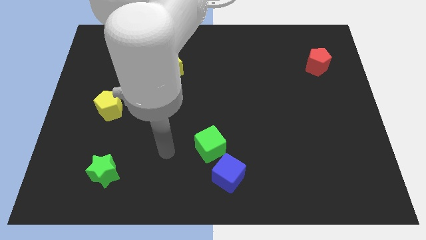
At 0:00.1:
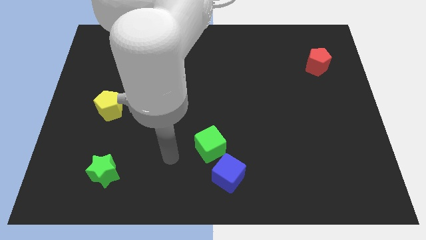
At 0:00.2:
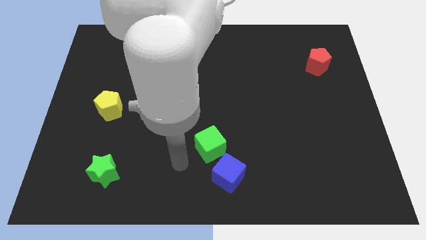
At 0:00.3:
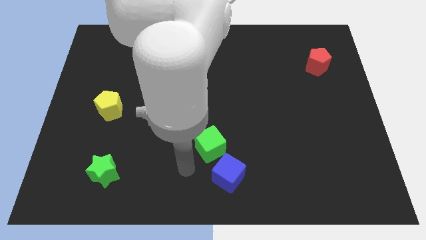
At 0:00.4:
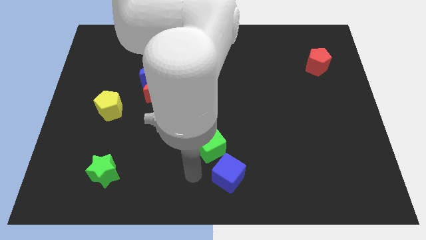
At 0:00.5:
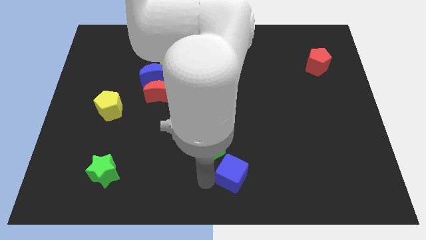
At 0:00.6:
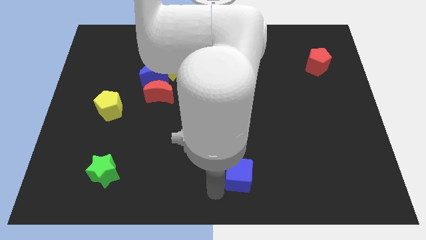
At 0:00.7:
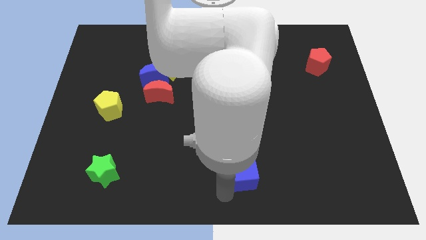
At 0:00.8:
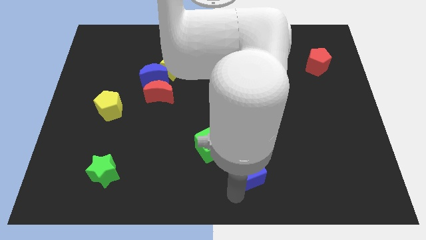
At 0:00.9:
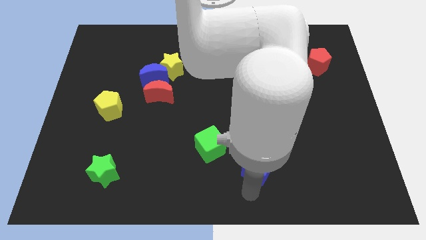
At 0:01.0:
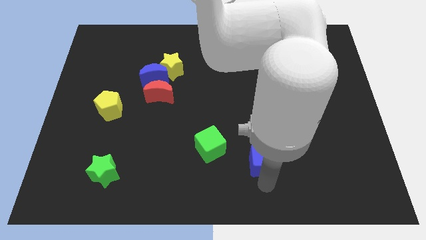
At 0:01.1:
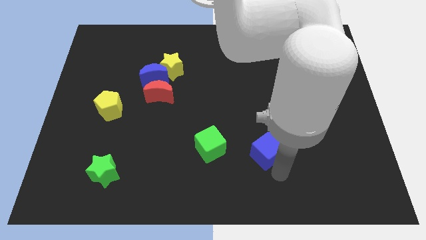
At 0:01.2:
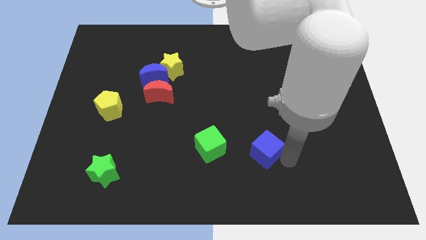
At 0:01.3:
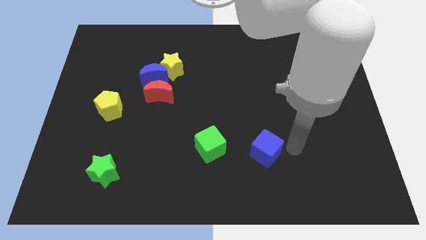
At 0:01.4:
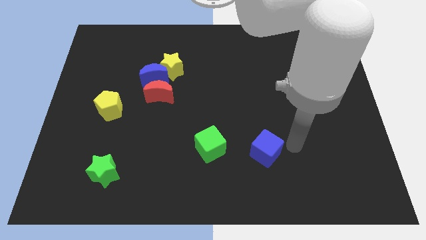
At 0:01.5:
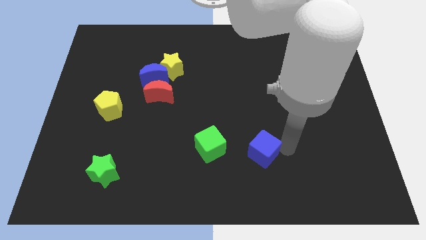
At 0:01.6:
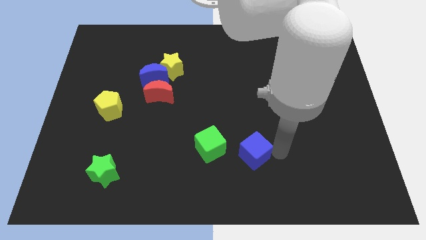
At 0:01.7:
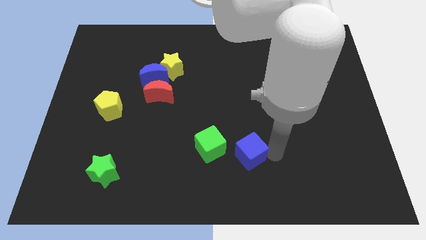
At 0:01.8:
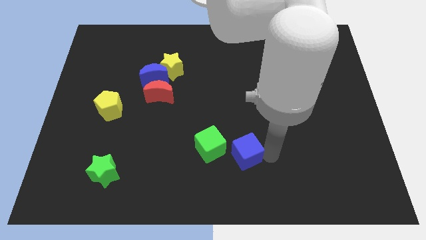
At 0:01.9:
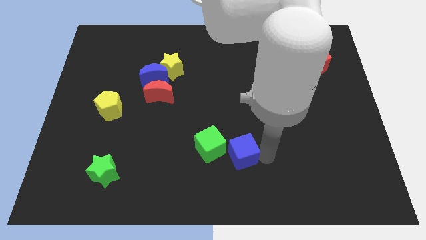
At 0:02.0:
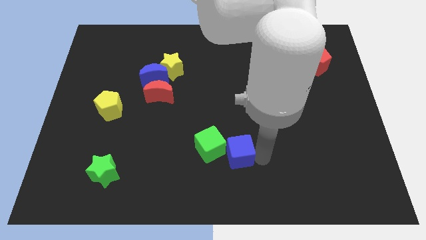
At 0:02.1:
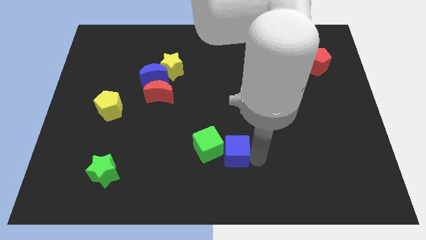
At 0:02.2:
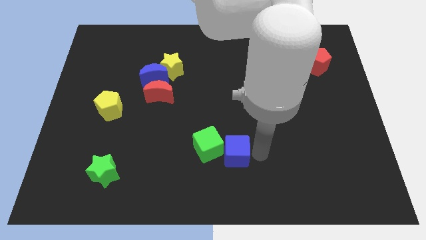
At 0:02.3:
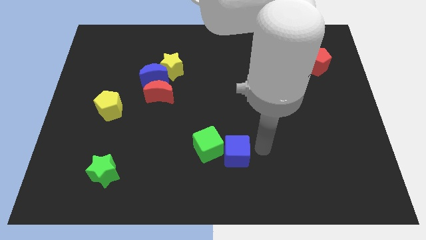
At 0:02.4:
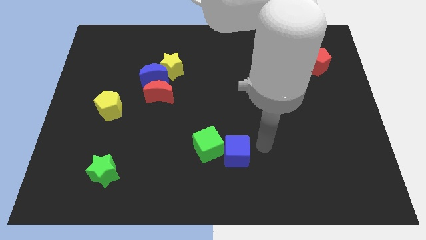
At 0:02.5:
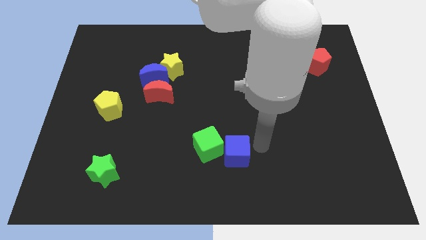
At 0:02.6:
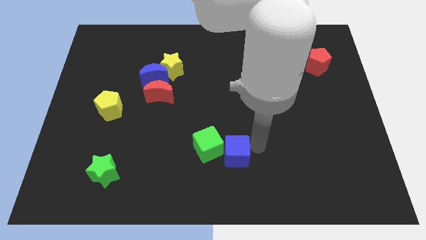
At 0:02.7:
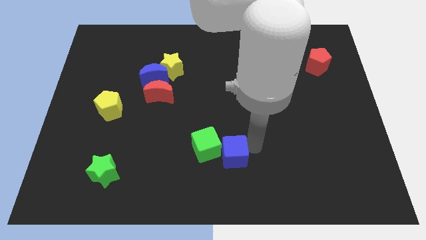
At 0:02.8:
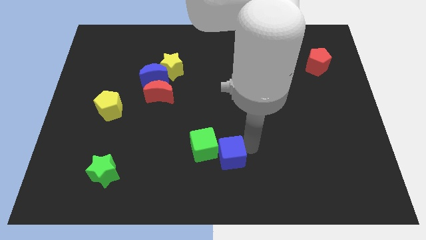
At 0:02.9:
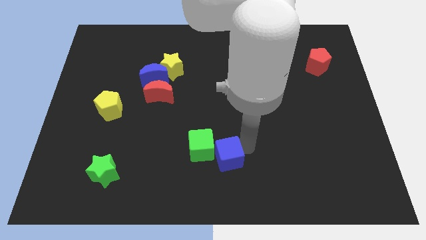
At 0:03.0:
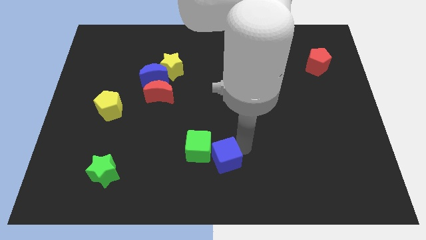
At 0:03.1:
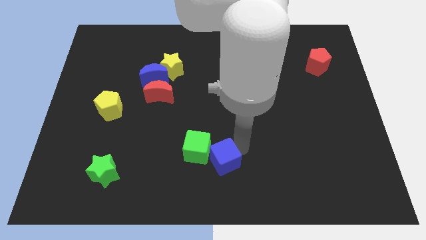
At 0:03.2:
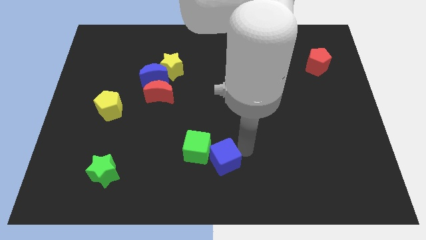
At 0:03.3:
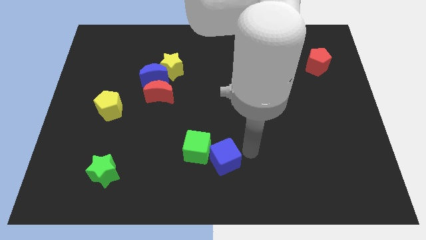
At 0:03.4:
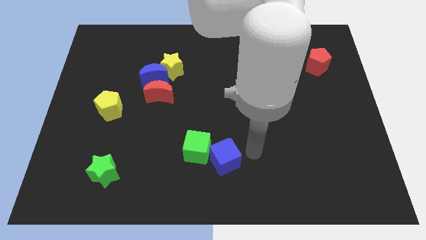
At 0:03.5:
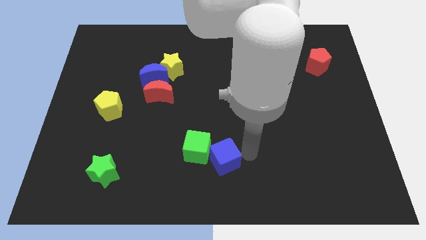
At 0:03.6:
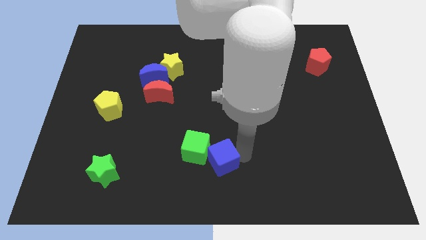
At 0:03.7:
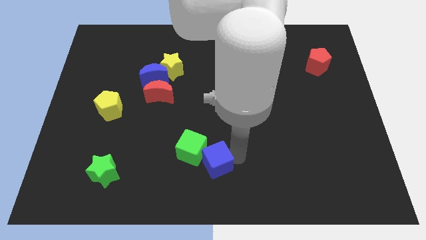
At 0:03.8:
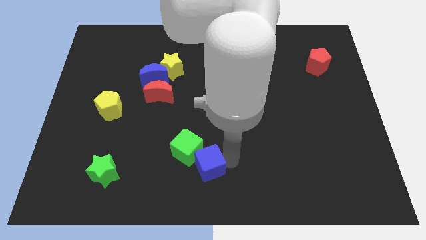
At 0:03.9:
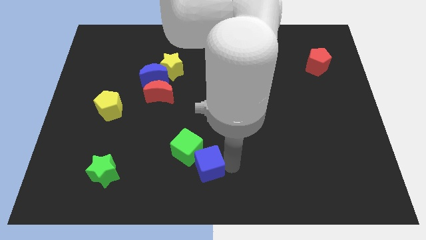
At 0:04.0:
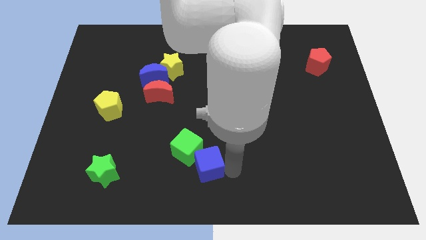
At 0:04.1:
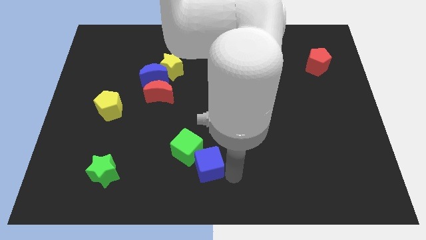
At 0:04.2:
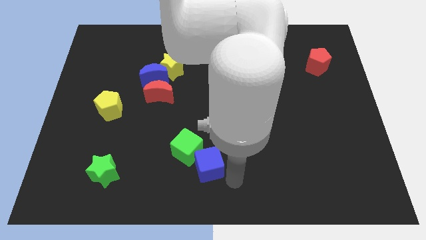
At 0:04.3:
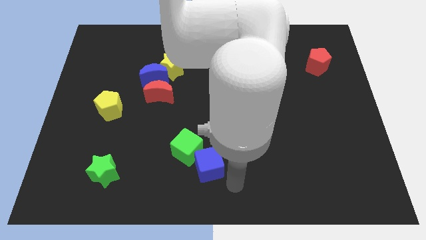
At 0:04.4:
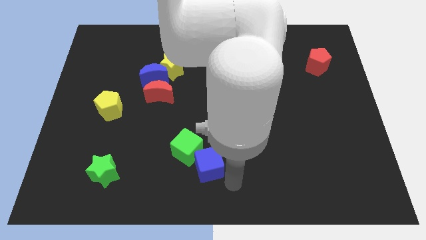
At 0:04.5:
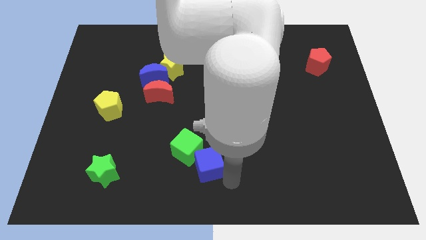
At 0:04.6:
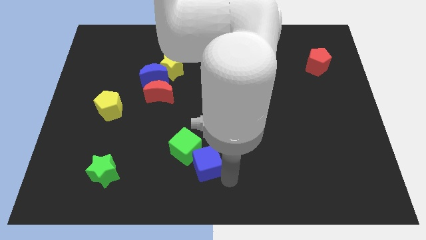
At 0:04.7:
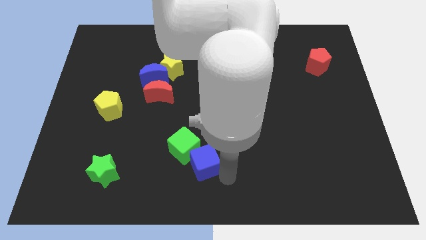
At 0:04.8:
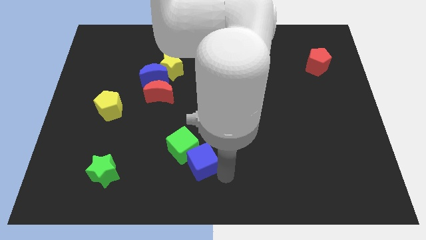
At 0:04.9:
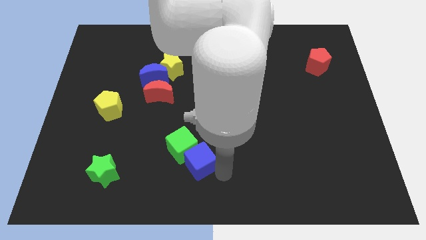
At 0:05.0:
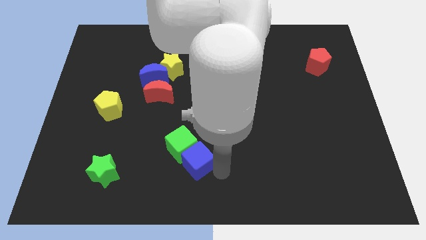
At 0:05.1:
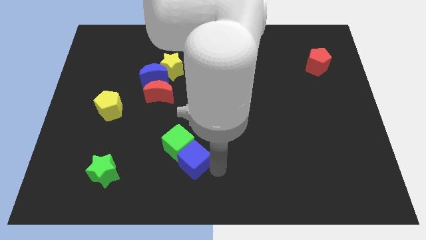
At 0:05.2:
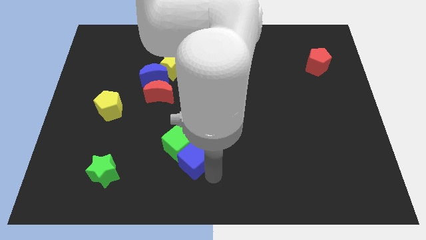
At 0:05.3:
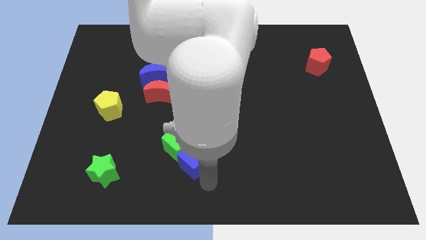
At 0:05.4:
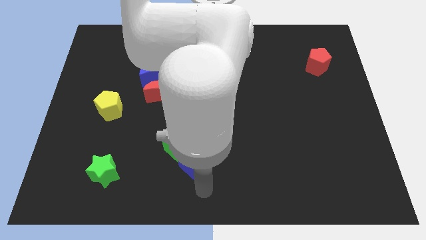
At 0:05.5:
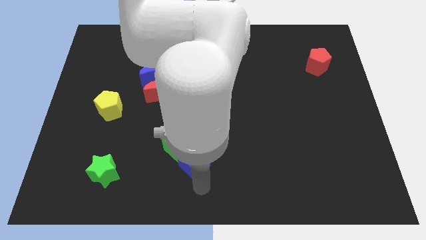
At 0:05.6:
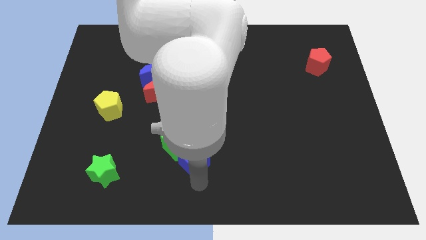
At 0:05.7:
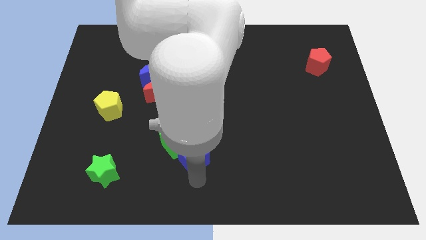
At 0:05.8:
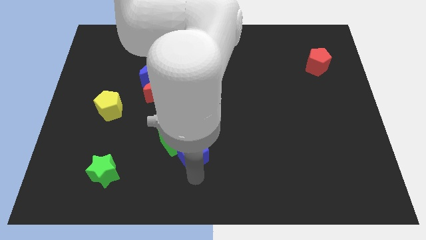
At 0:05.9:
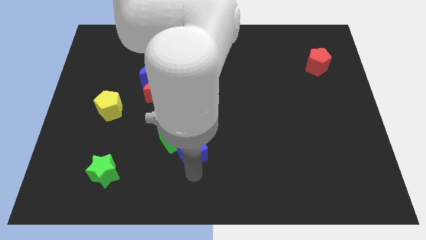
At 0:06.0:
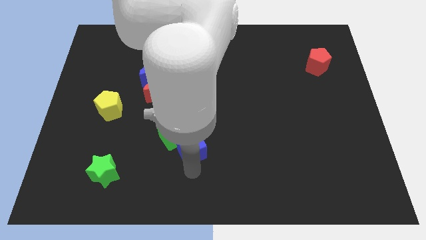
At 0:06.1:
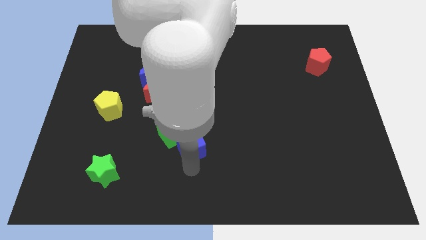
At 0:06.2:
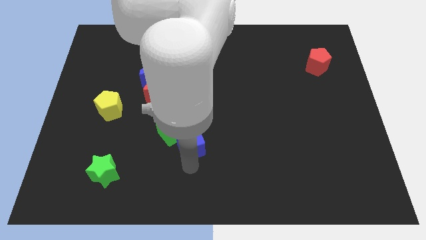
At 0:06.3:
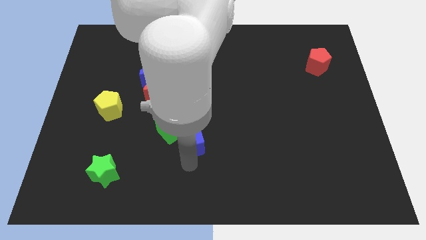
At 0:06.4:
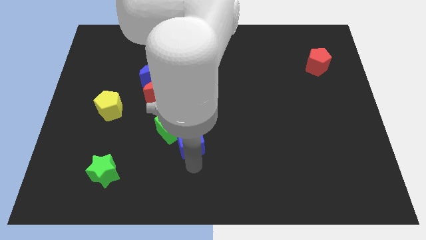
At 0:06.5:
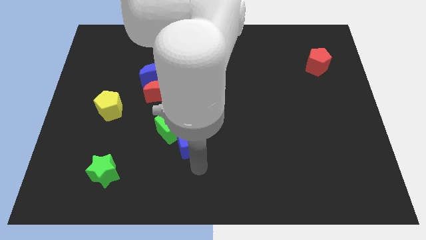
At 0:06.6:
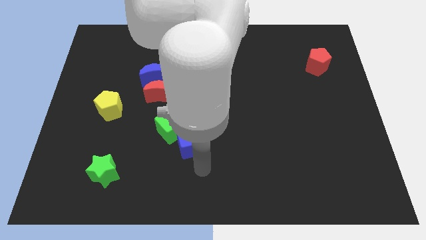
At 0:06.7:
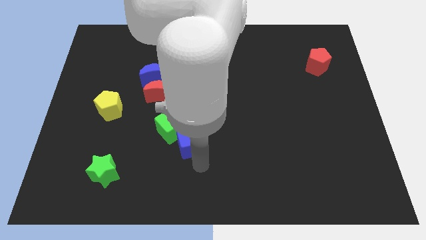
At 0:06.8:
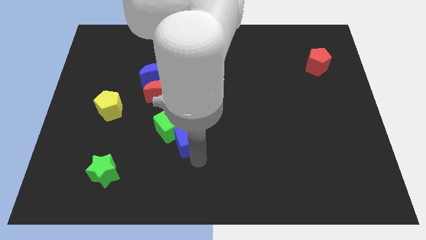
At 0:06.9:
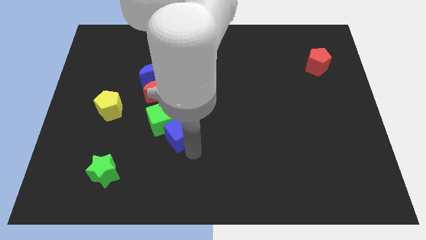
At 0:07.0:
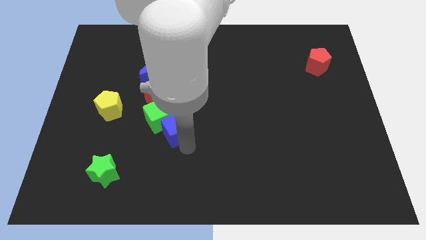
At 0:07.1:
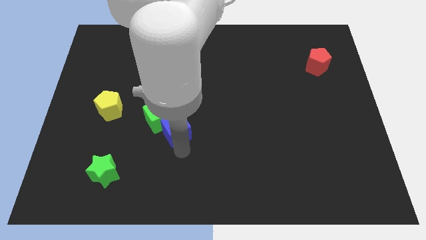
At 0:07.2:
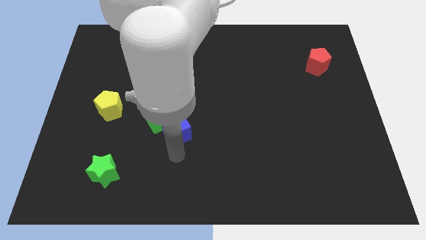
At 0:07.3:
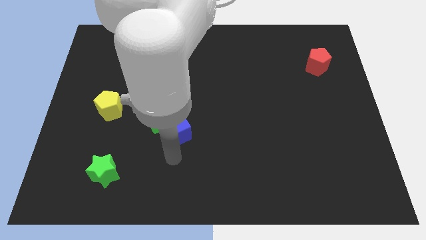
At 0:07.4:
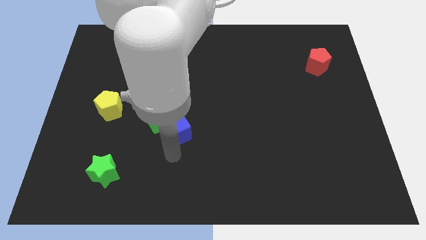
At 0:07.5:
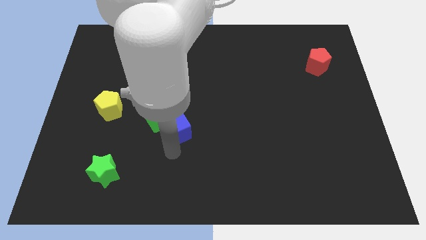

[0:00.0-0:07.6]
slide the blue cube diagonally down and to the right of the red moon
